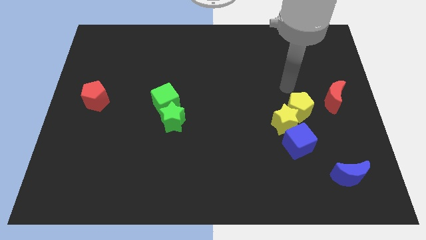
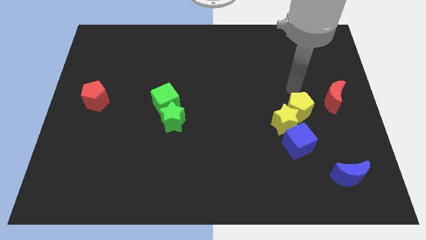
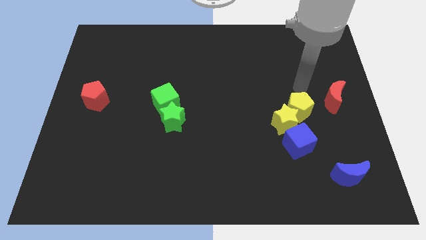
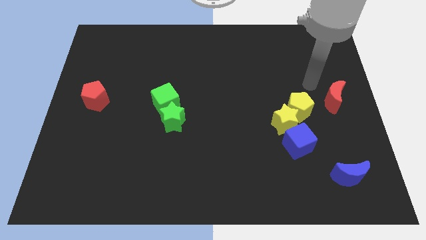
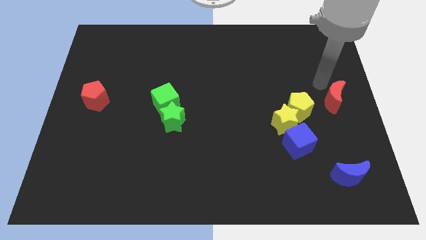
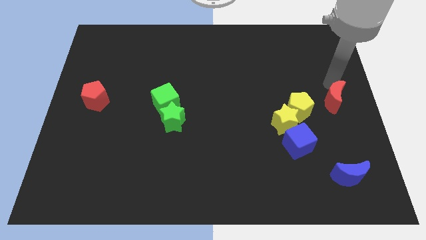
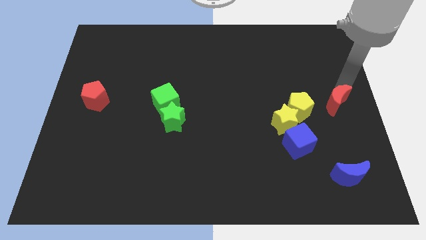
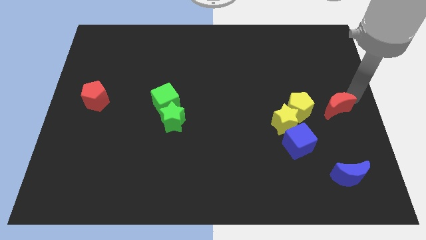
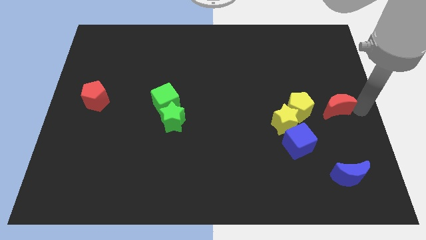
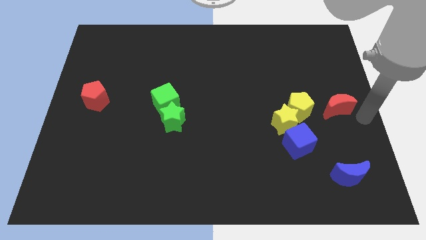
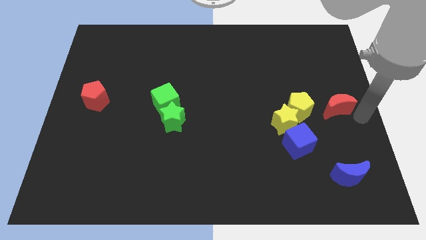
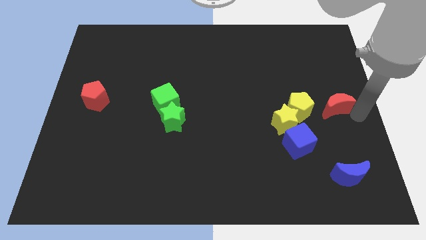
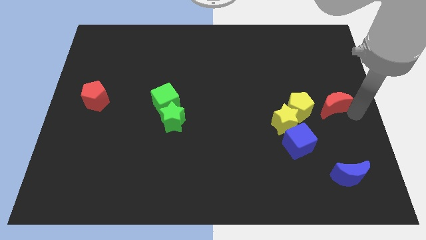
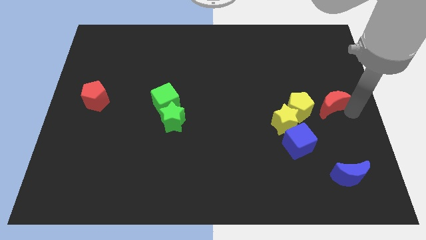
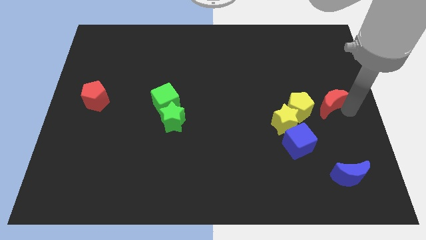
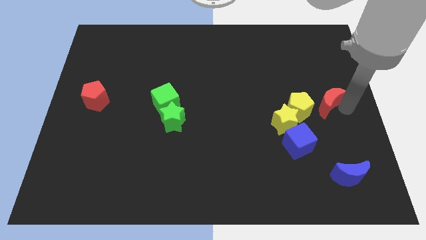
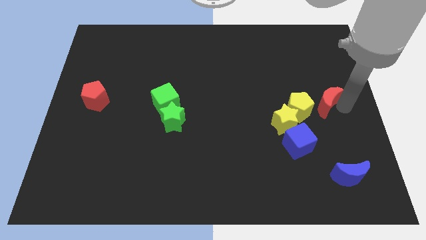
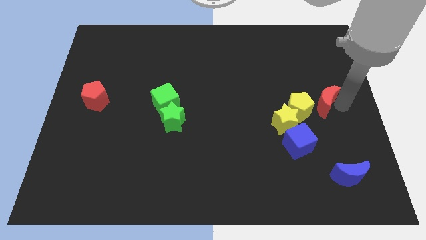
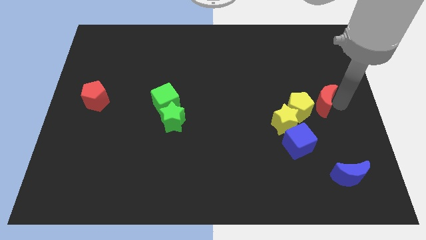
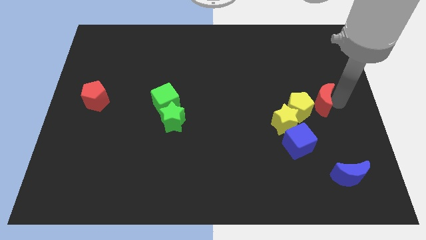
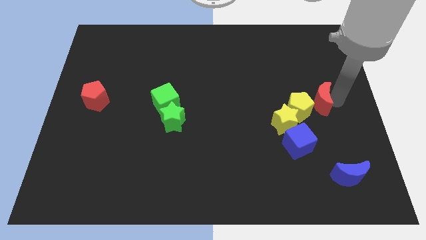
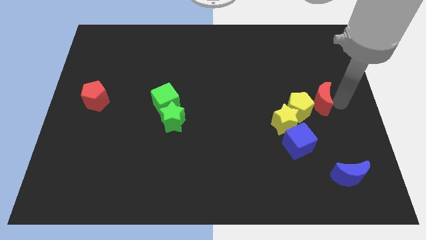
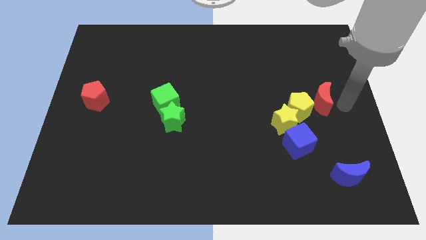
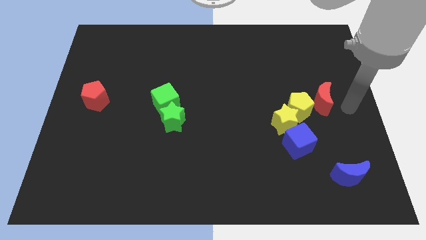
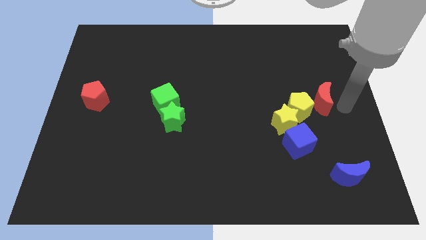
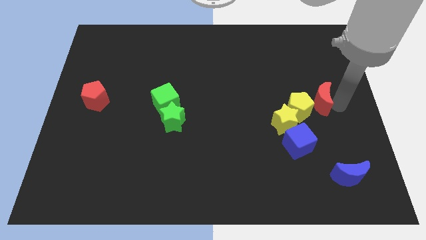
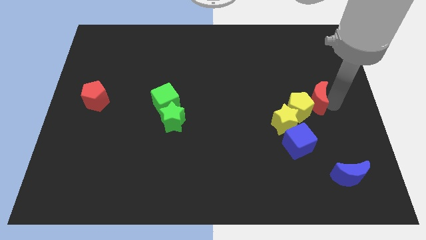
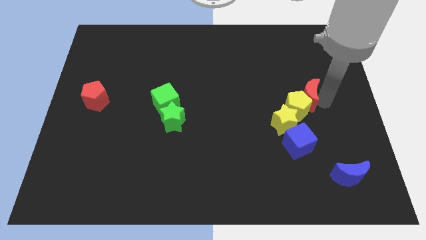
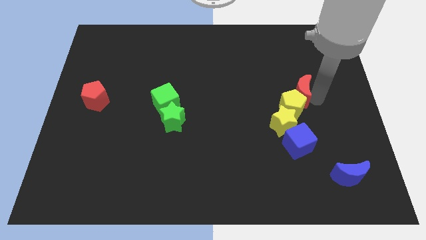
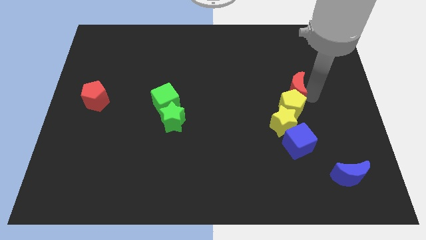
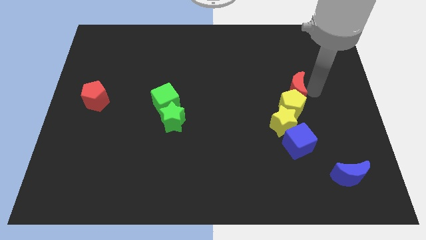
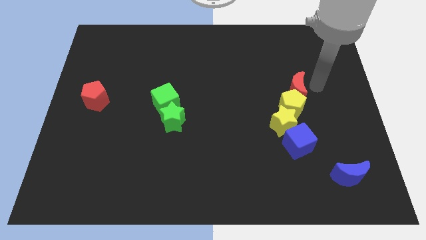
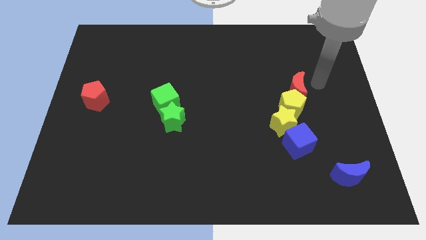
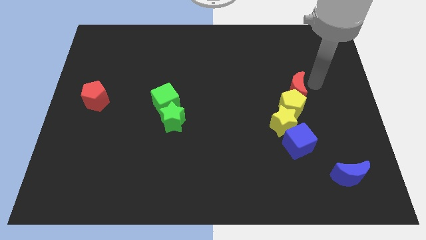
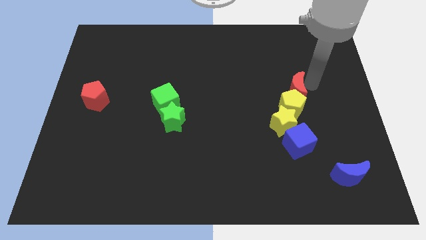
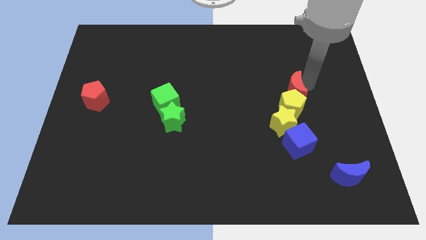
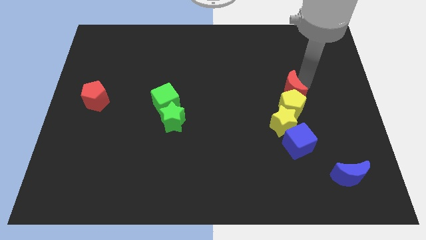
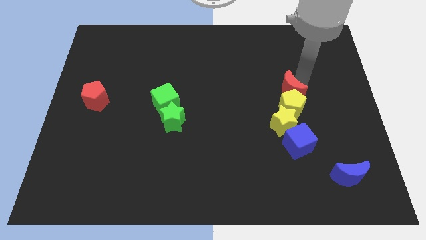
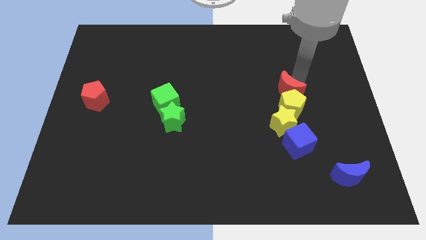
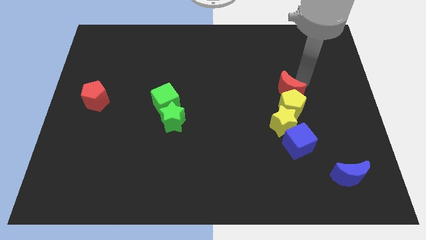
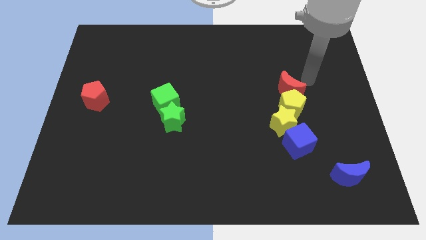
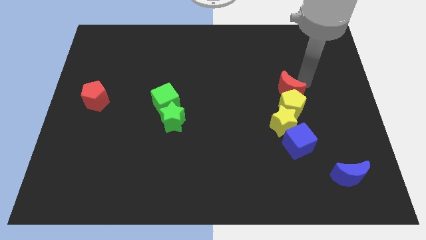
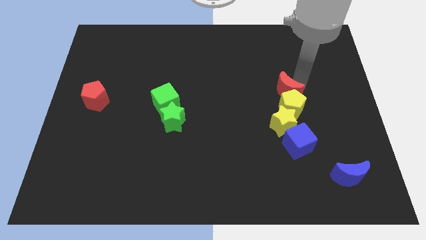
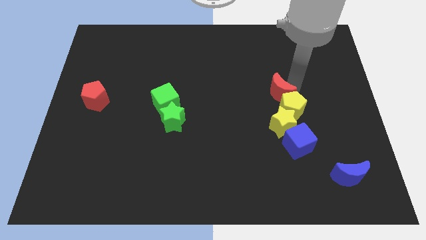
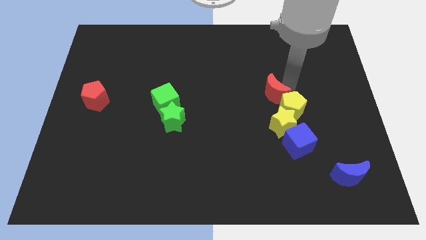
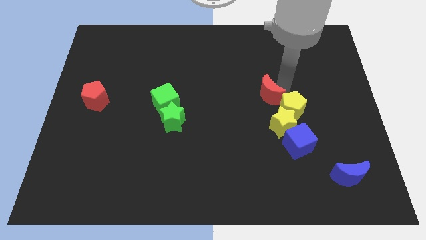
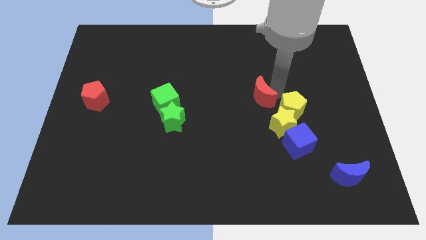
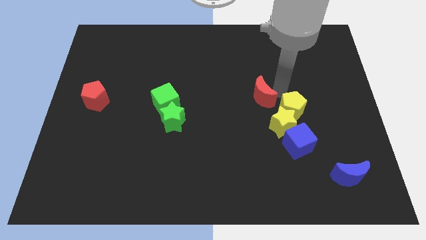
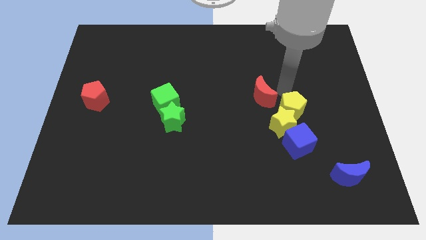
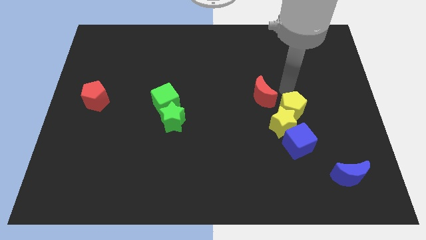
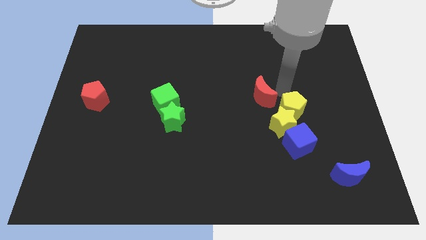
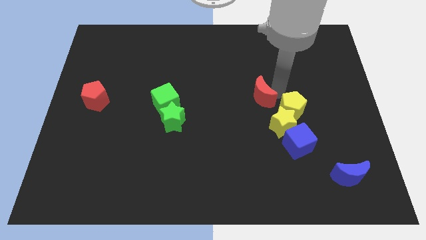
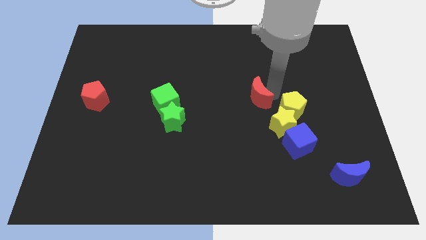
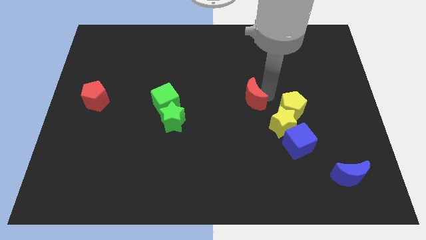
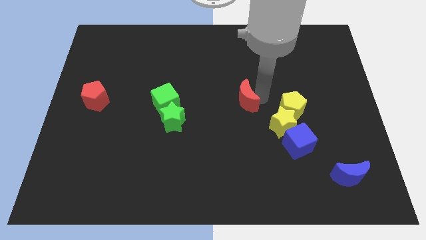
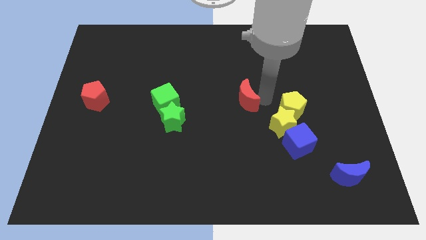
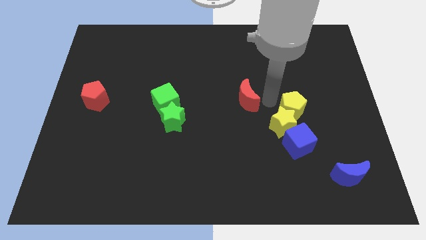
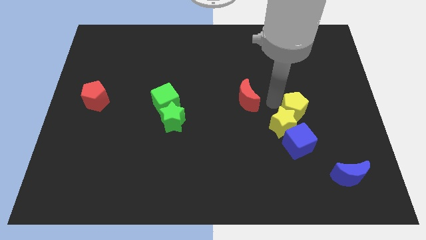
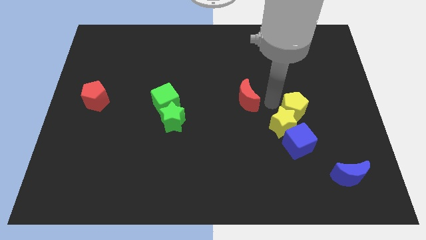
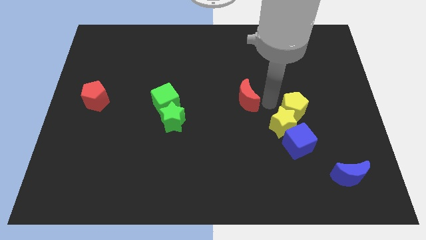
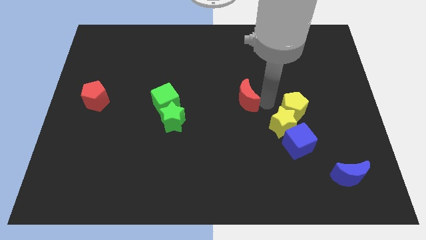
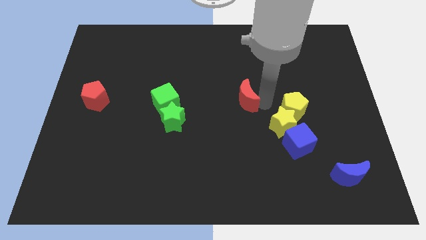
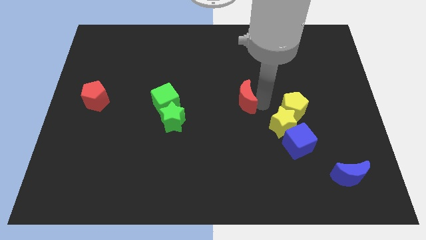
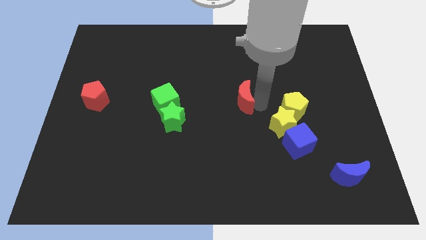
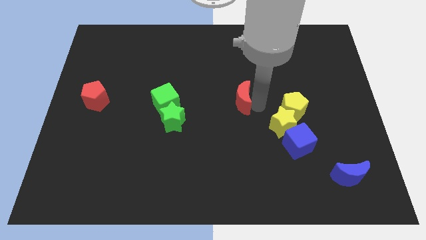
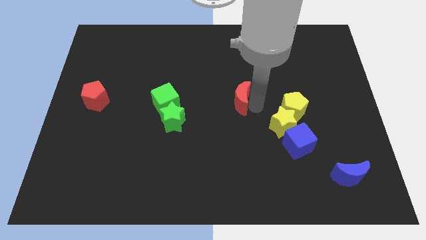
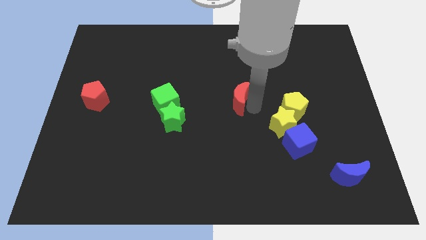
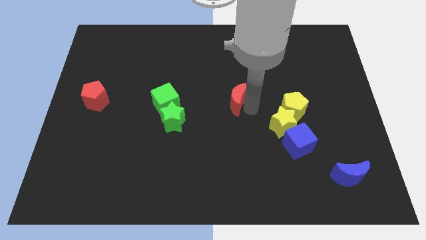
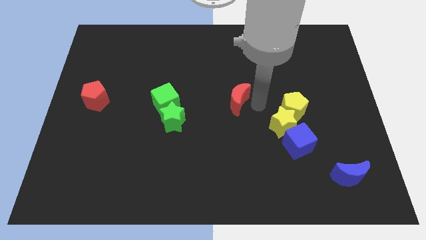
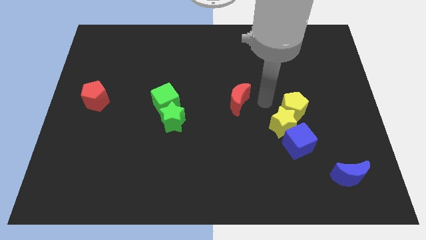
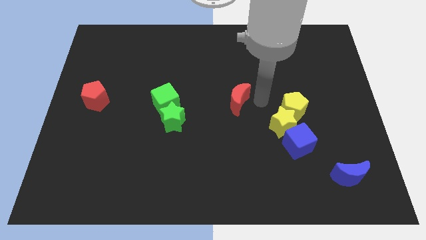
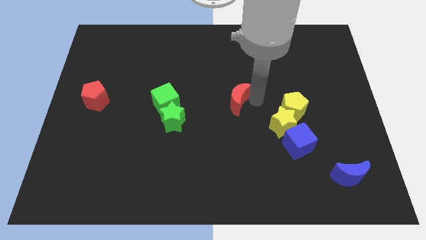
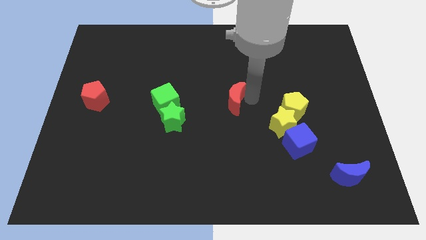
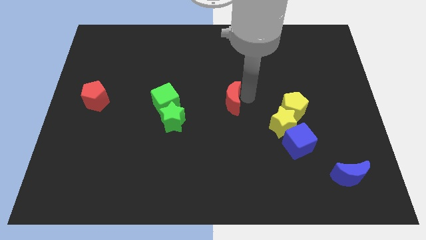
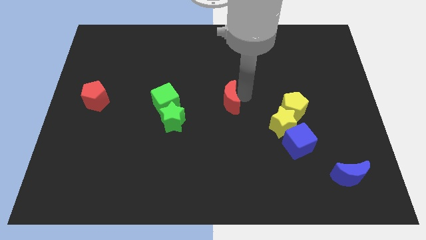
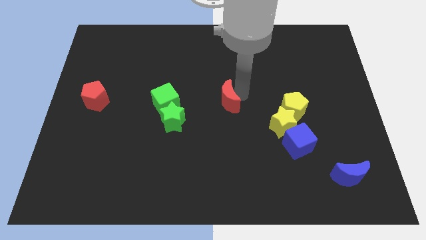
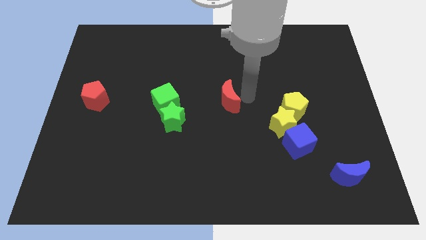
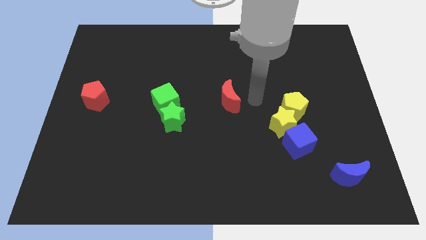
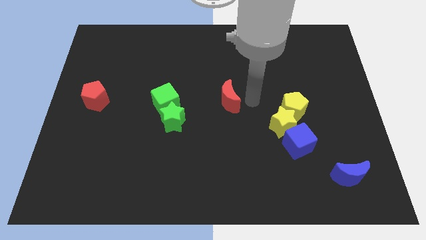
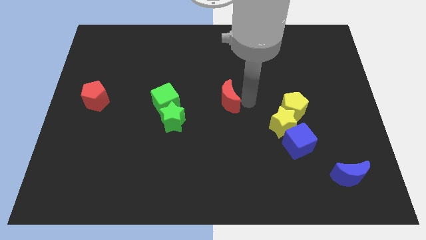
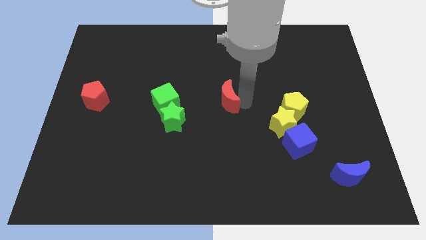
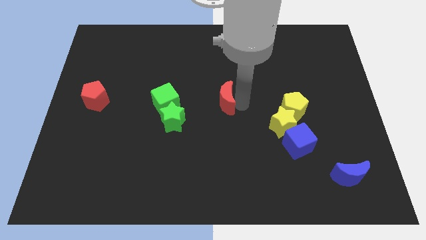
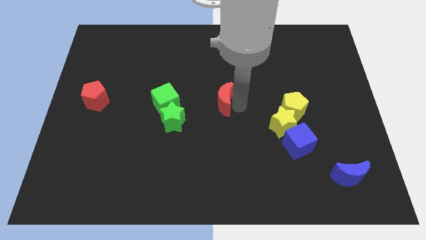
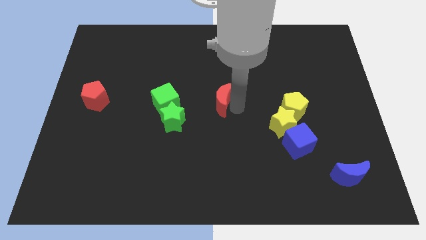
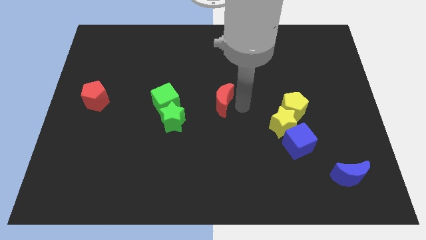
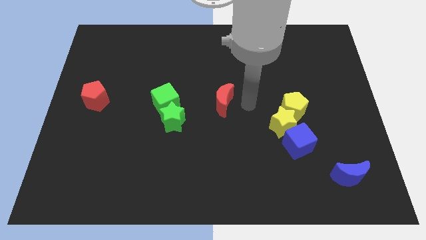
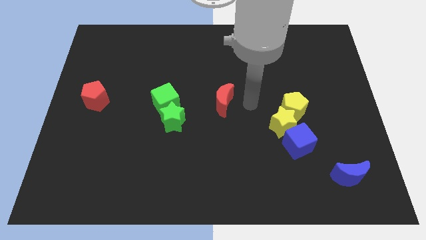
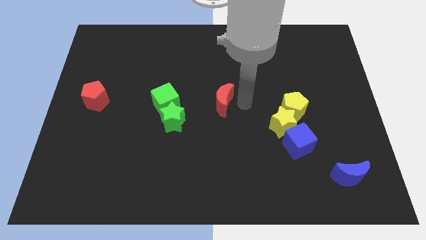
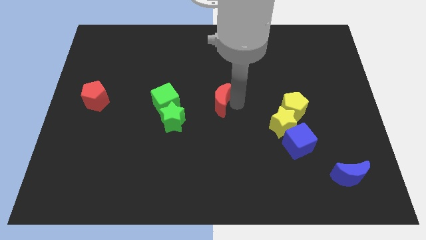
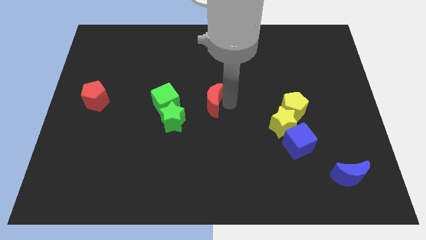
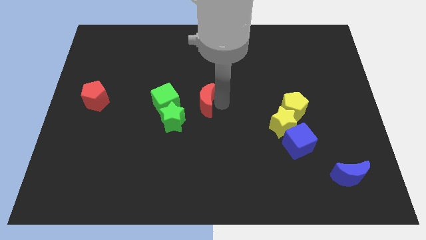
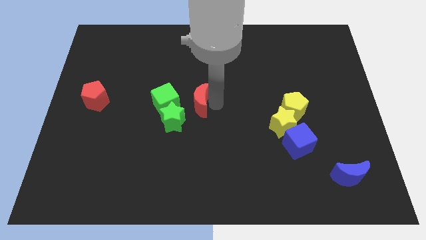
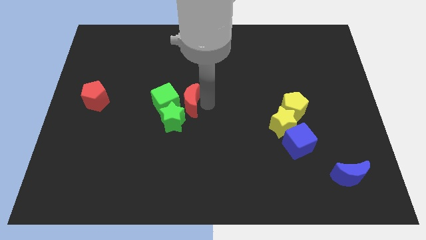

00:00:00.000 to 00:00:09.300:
push the red moon towards the green cube
